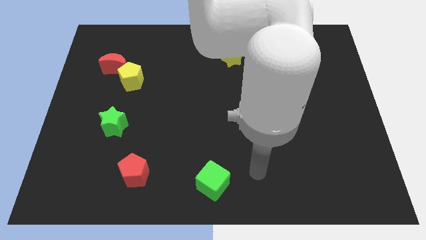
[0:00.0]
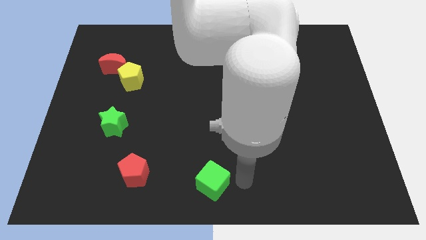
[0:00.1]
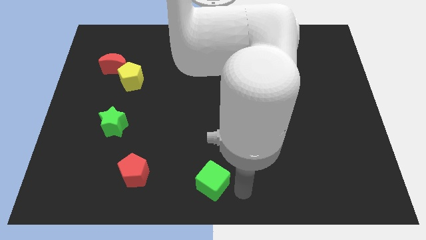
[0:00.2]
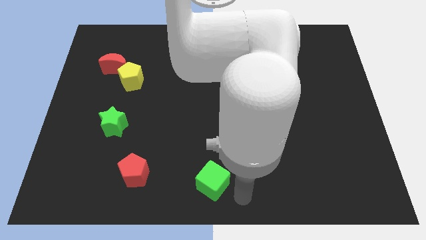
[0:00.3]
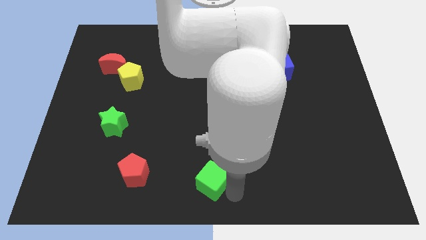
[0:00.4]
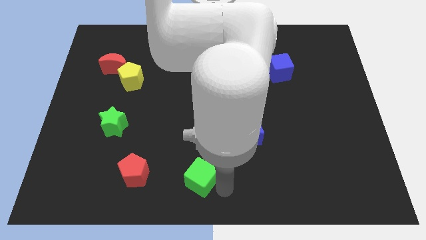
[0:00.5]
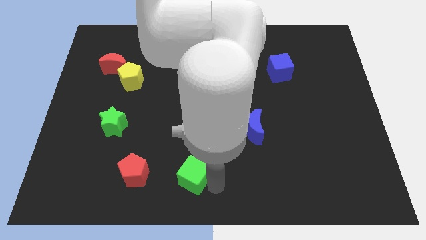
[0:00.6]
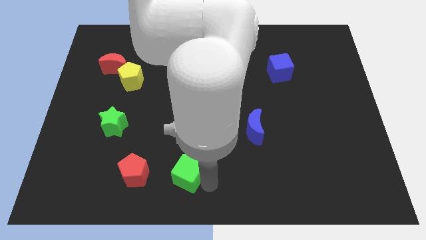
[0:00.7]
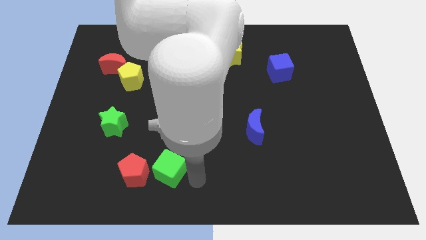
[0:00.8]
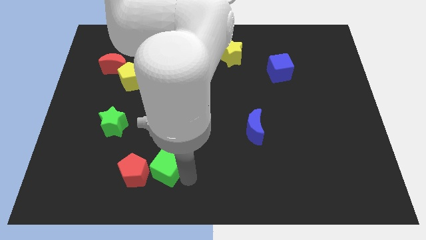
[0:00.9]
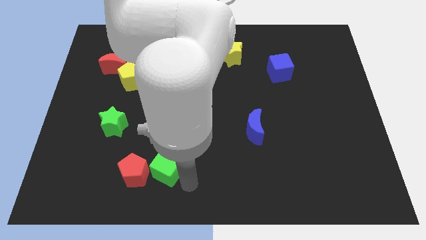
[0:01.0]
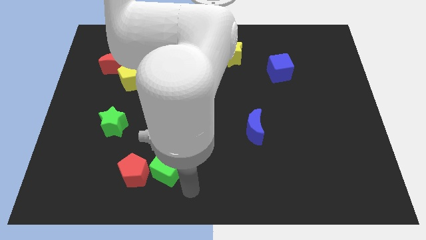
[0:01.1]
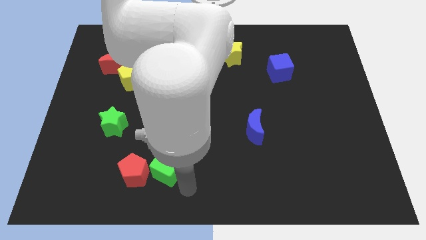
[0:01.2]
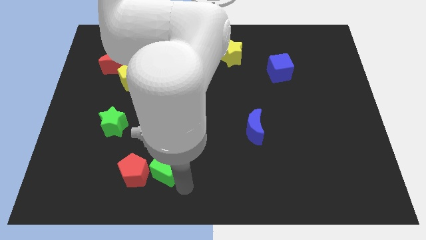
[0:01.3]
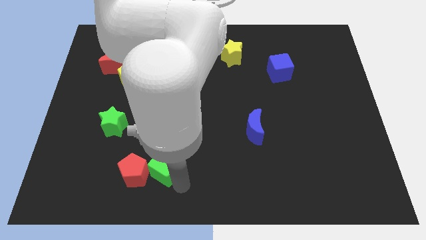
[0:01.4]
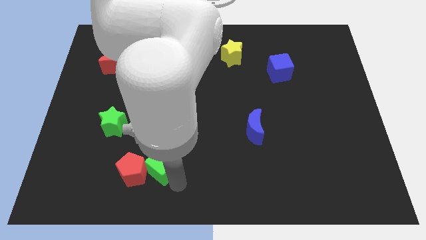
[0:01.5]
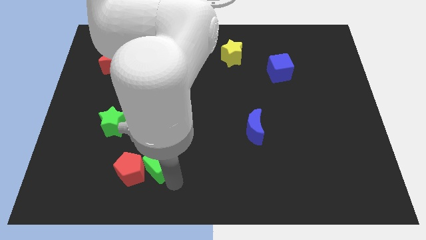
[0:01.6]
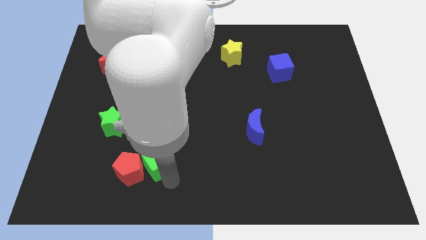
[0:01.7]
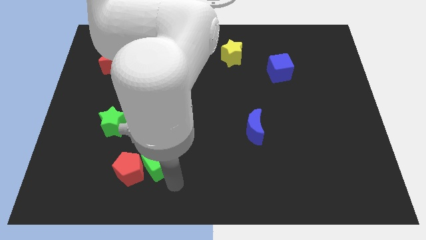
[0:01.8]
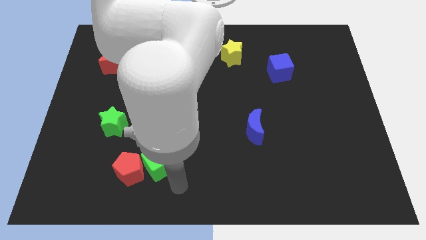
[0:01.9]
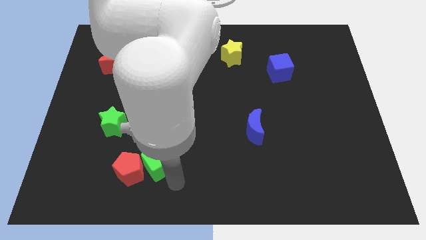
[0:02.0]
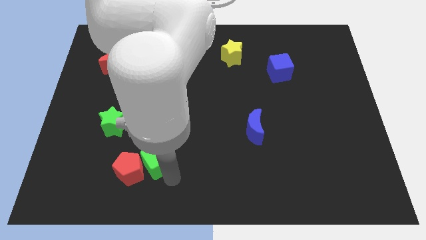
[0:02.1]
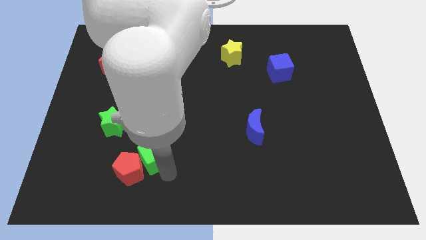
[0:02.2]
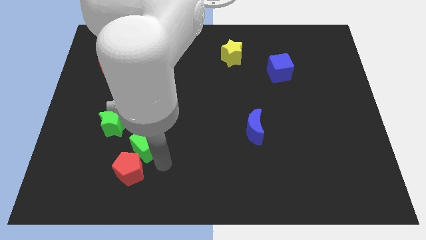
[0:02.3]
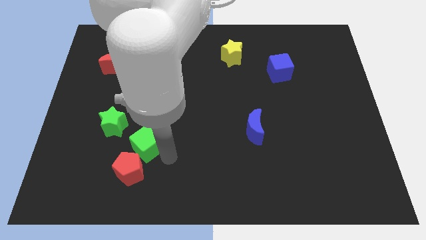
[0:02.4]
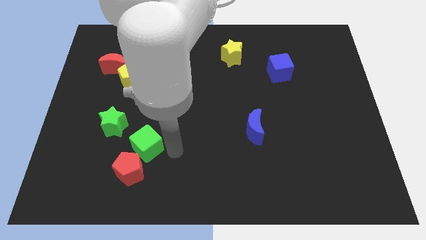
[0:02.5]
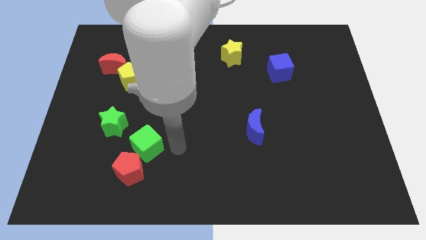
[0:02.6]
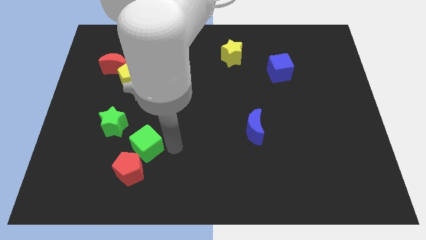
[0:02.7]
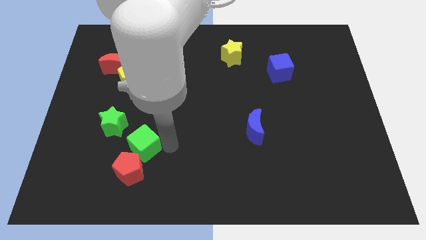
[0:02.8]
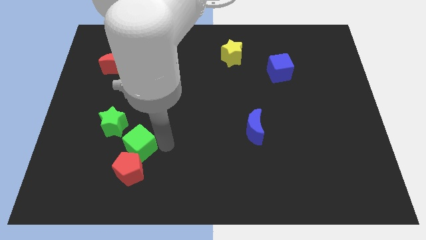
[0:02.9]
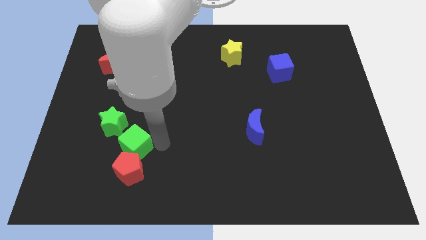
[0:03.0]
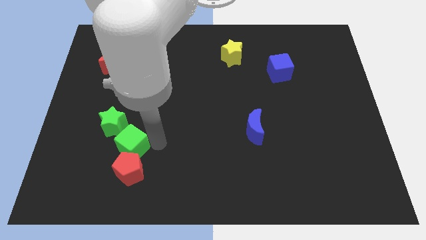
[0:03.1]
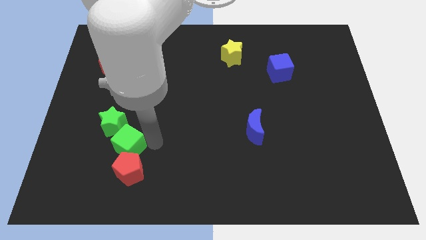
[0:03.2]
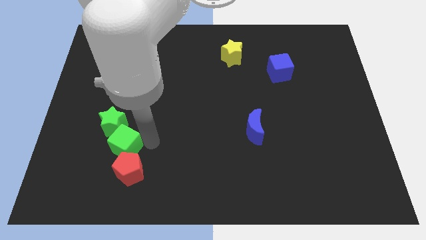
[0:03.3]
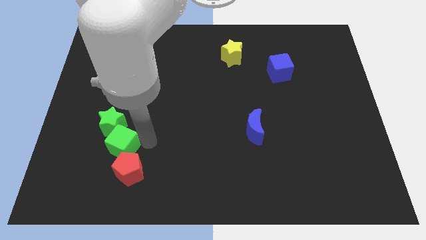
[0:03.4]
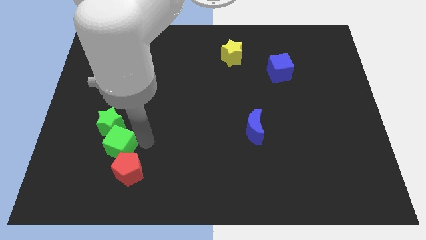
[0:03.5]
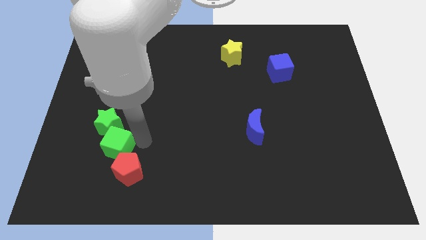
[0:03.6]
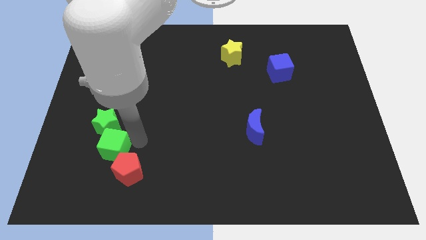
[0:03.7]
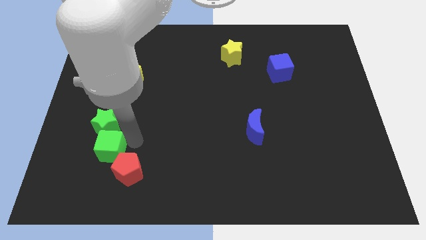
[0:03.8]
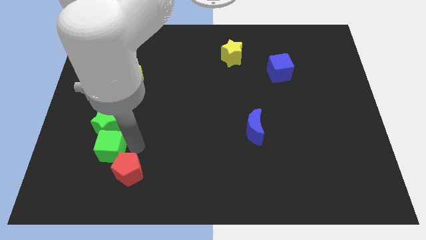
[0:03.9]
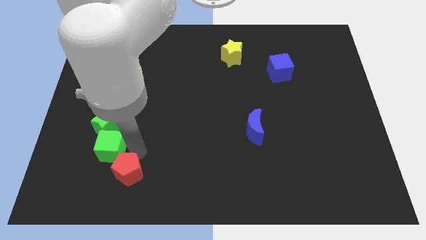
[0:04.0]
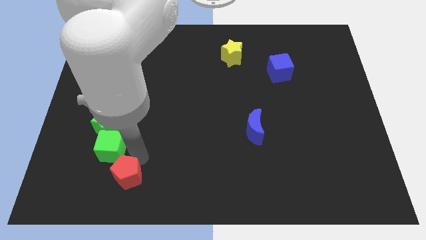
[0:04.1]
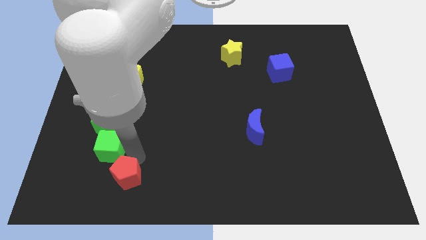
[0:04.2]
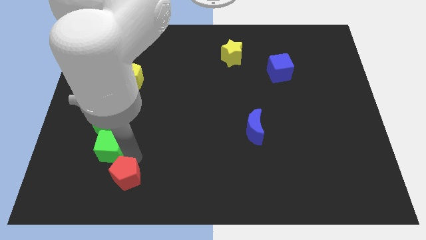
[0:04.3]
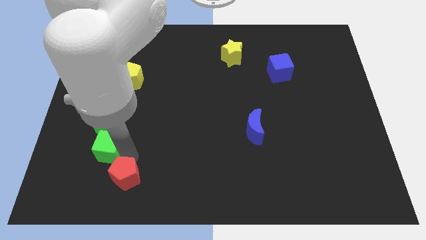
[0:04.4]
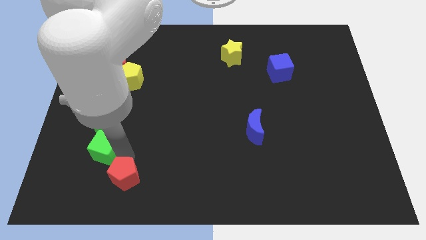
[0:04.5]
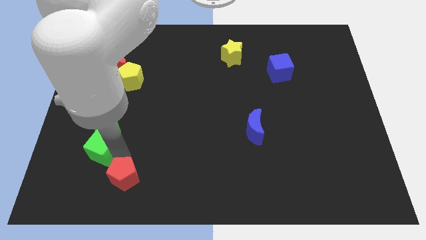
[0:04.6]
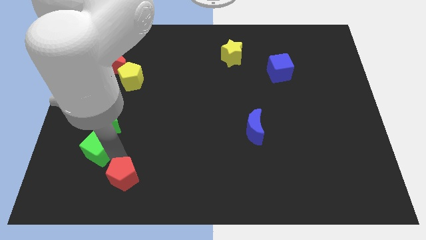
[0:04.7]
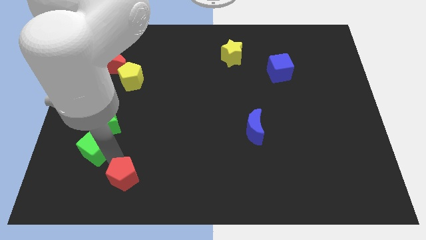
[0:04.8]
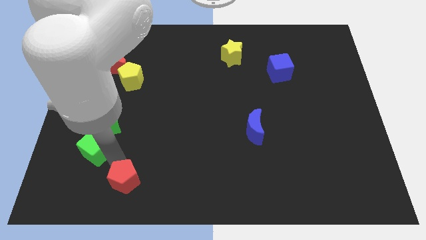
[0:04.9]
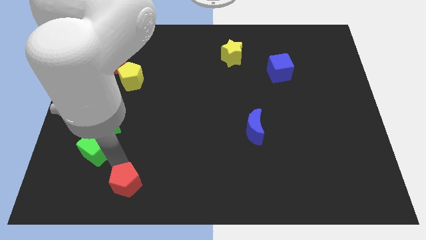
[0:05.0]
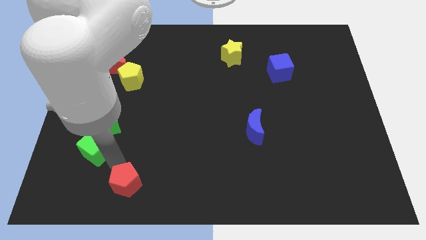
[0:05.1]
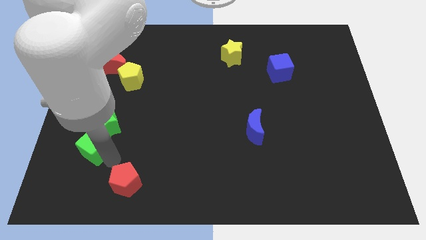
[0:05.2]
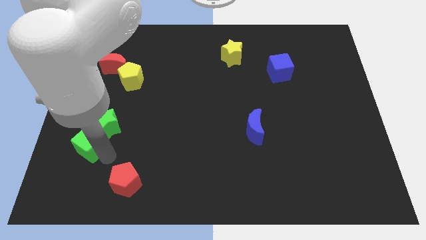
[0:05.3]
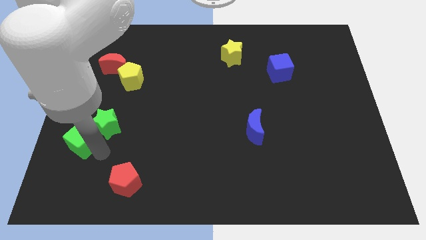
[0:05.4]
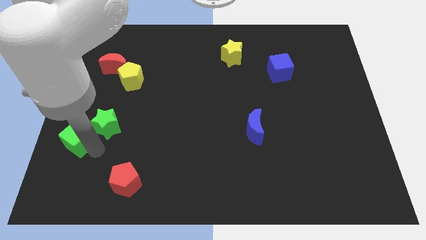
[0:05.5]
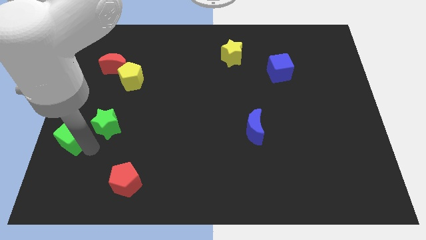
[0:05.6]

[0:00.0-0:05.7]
slide the green cube to the center left

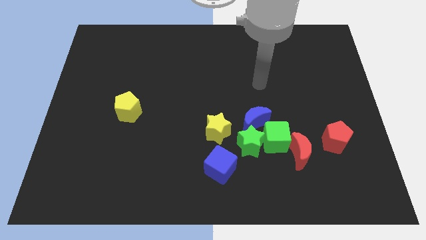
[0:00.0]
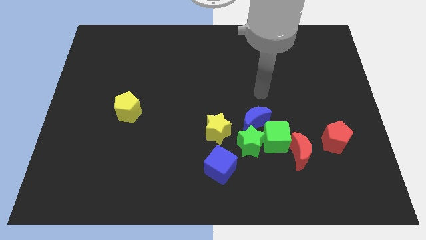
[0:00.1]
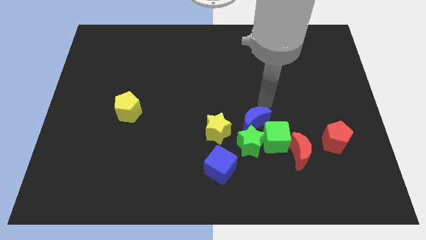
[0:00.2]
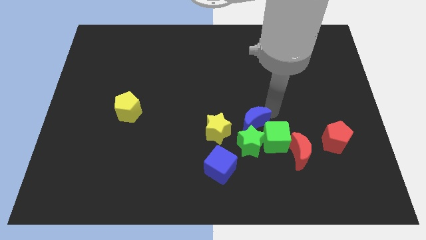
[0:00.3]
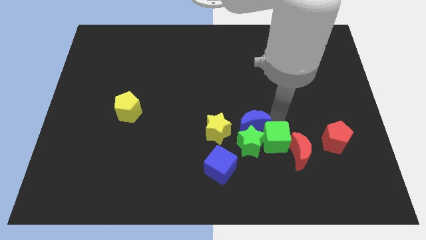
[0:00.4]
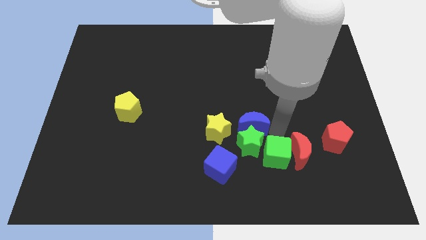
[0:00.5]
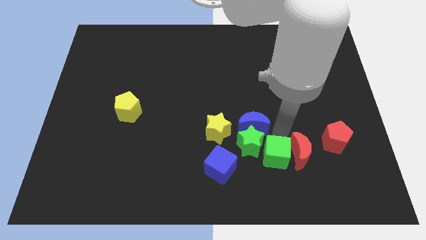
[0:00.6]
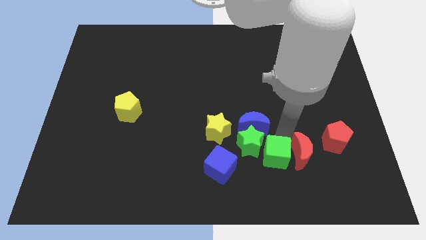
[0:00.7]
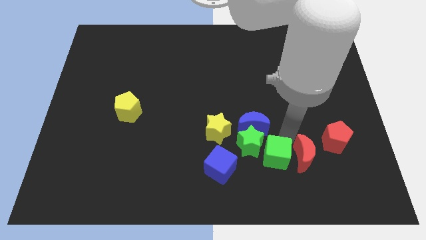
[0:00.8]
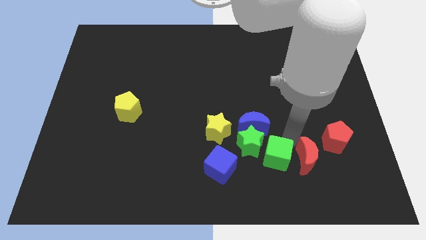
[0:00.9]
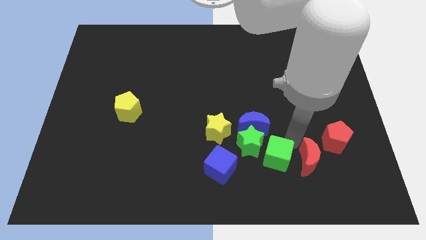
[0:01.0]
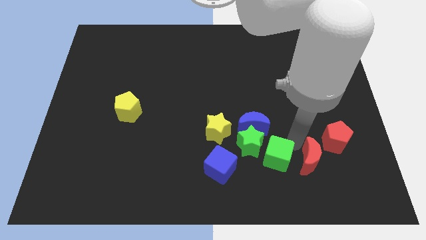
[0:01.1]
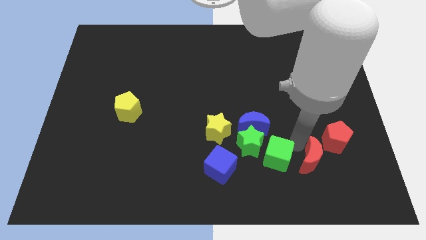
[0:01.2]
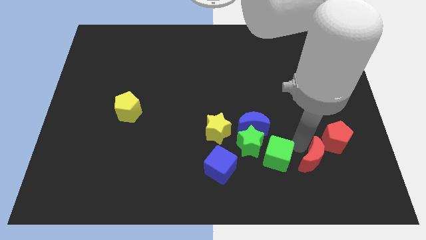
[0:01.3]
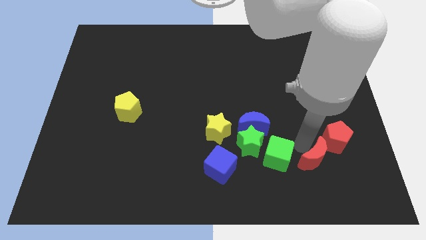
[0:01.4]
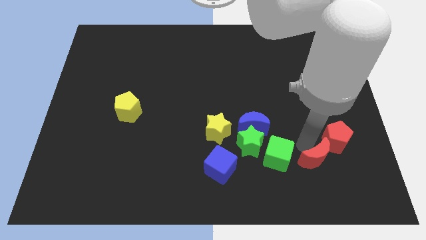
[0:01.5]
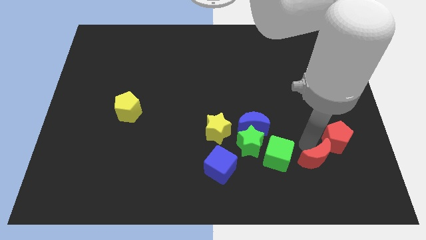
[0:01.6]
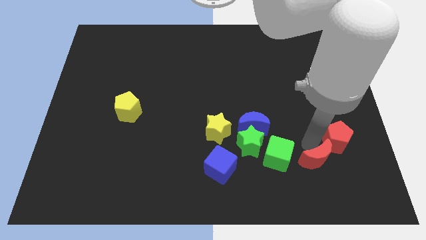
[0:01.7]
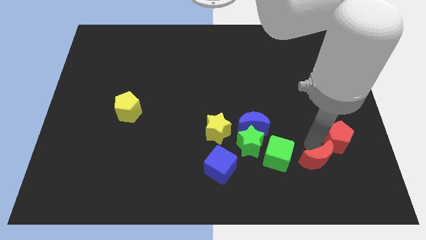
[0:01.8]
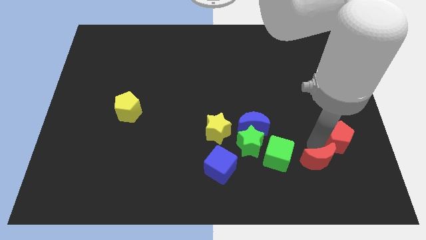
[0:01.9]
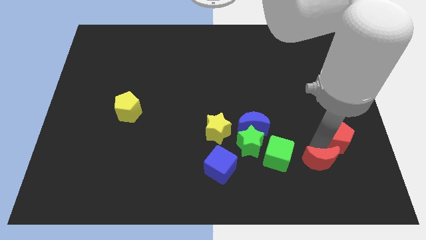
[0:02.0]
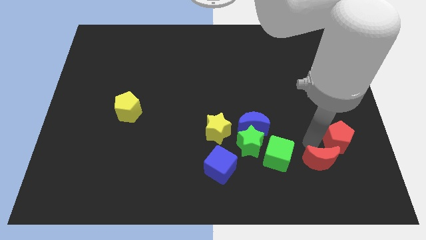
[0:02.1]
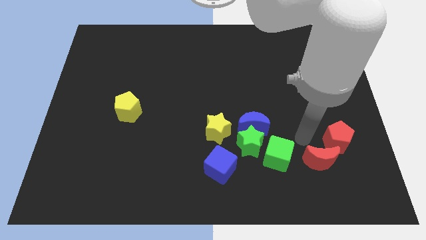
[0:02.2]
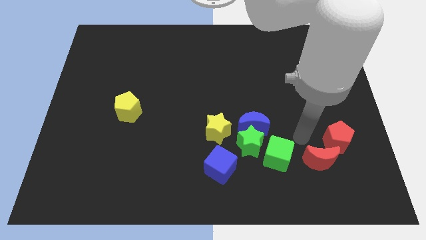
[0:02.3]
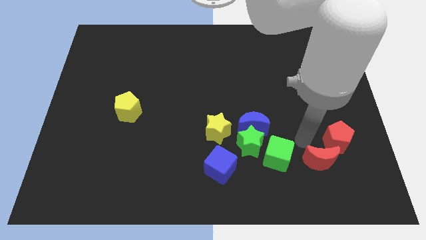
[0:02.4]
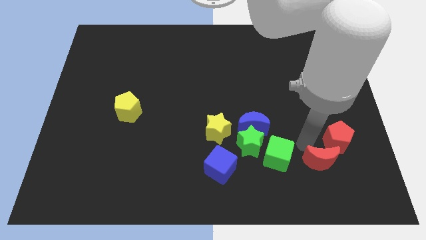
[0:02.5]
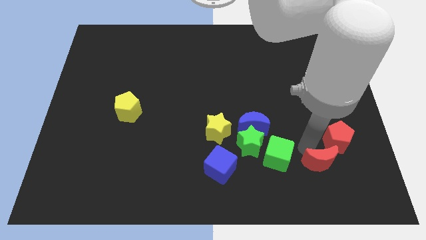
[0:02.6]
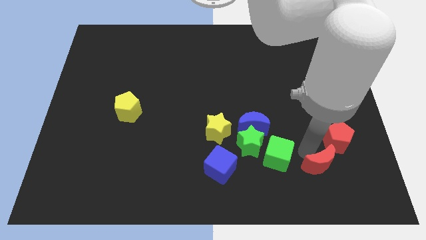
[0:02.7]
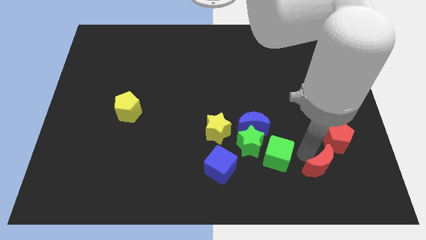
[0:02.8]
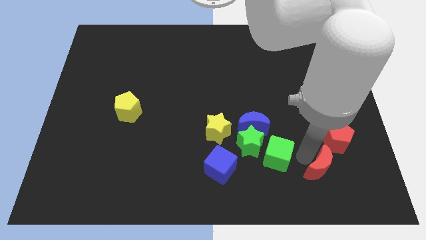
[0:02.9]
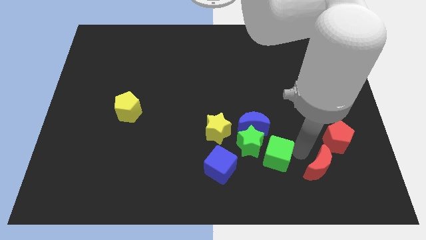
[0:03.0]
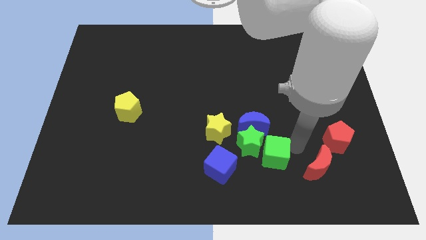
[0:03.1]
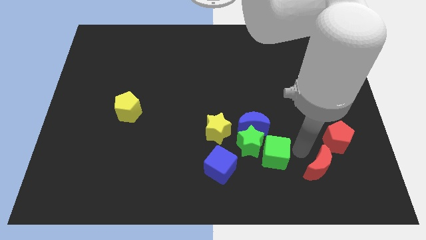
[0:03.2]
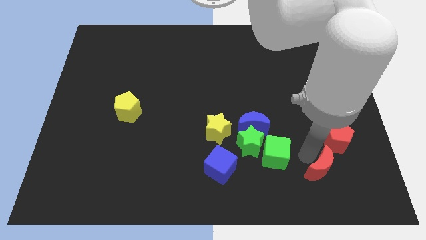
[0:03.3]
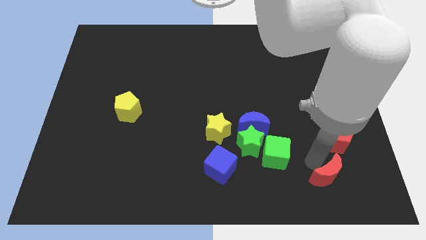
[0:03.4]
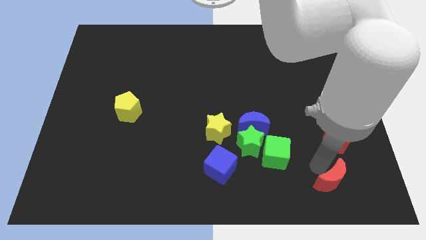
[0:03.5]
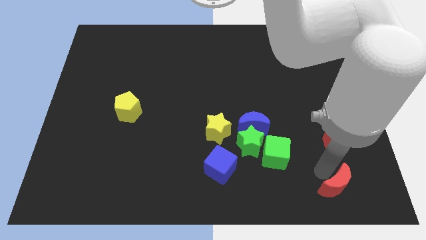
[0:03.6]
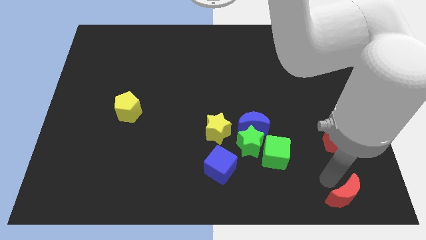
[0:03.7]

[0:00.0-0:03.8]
slide the red moon to the lower right corner
